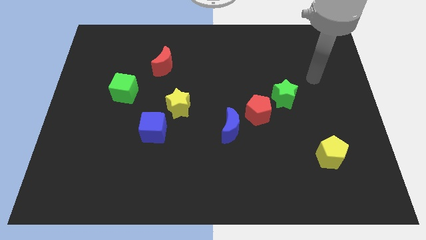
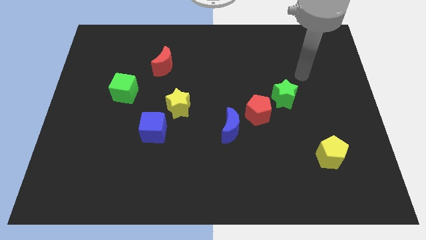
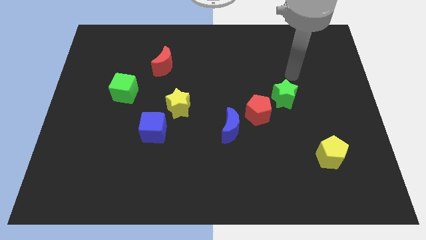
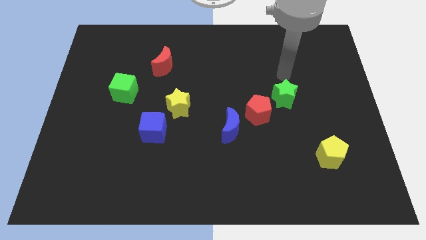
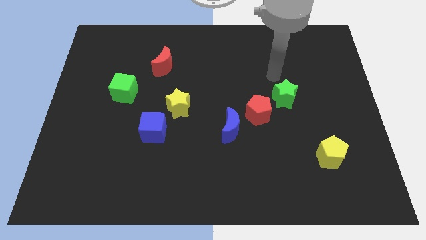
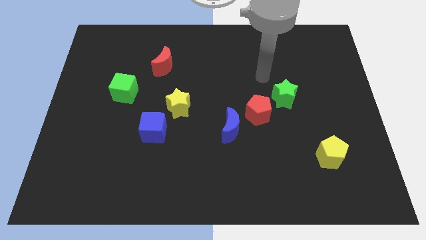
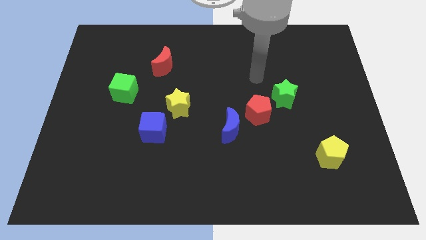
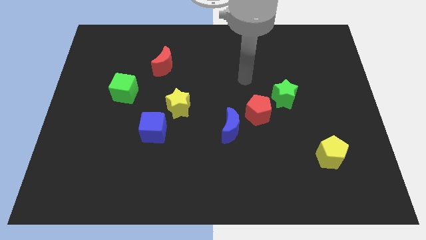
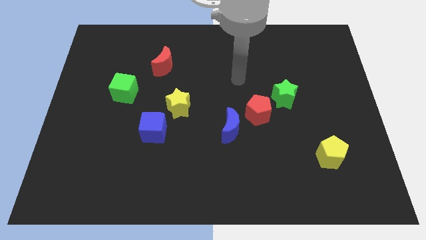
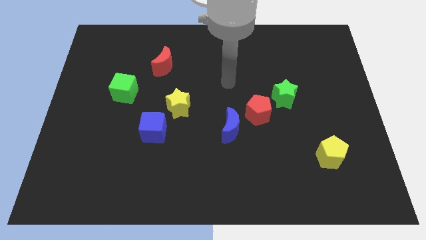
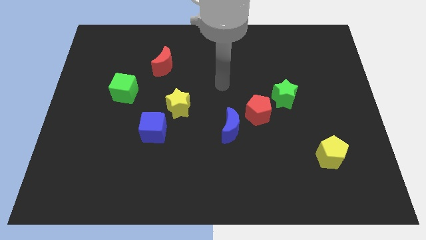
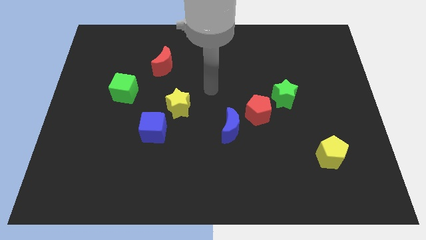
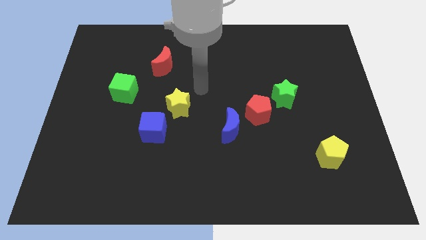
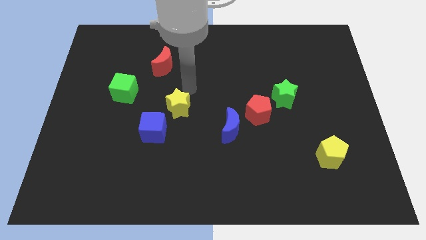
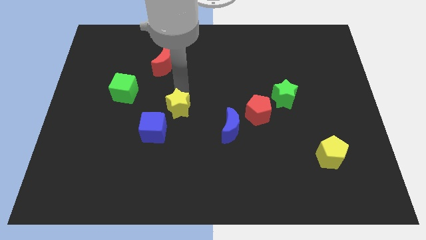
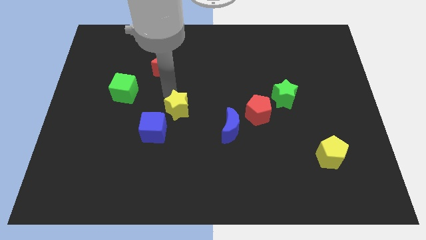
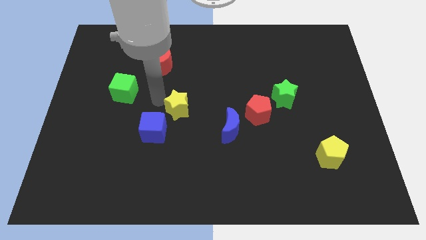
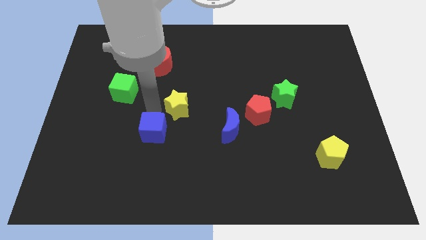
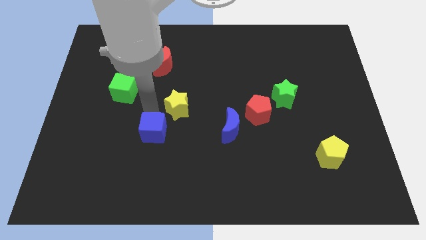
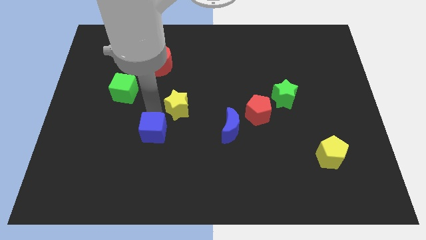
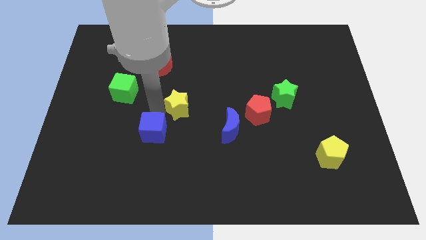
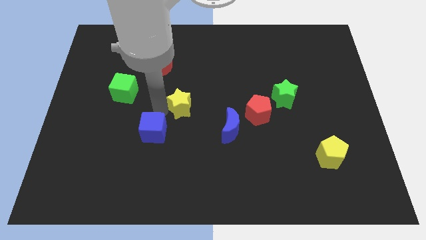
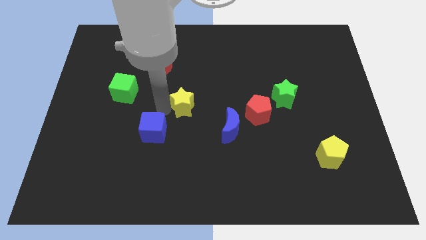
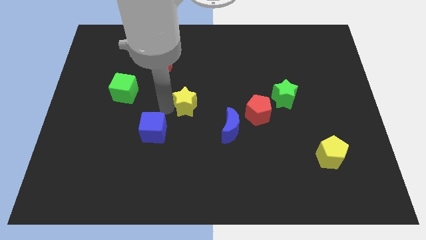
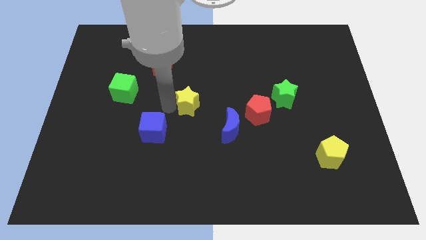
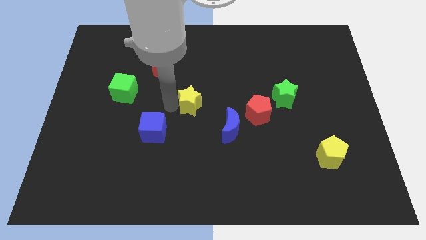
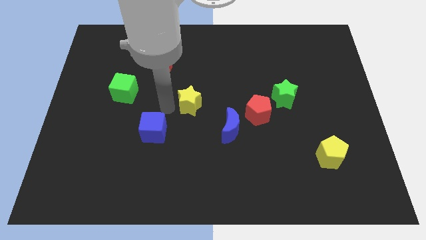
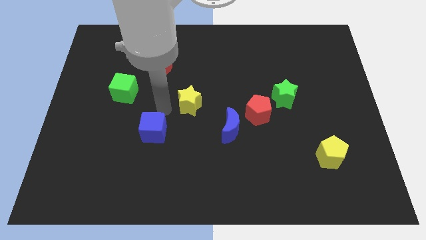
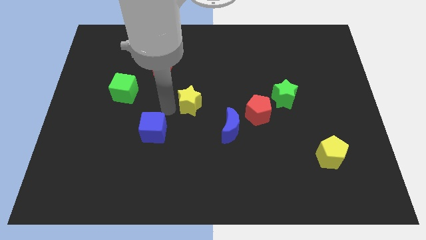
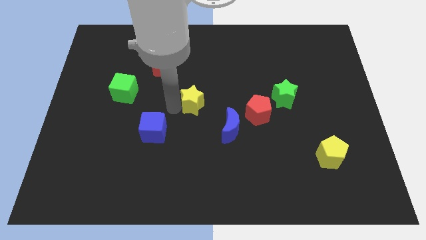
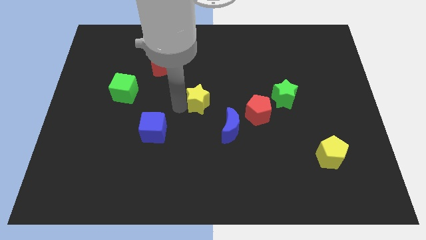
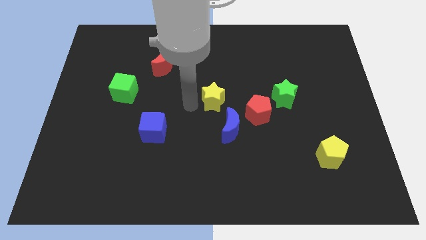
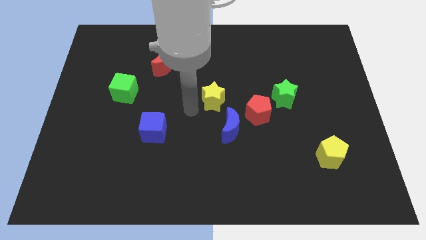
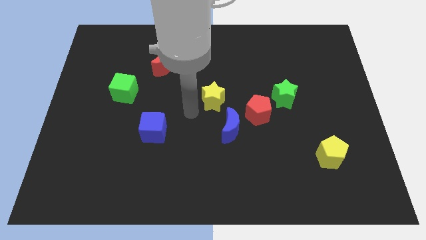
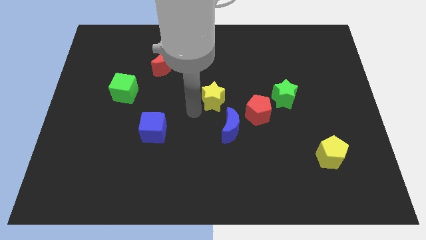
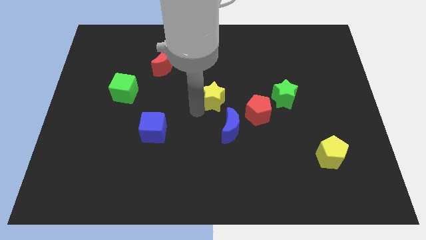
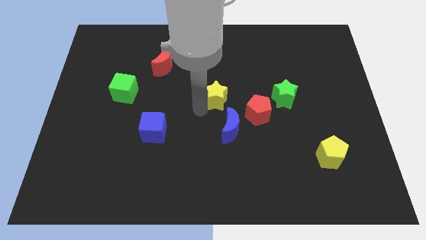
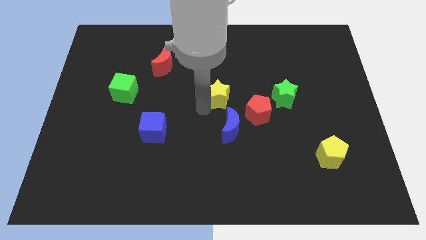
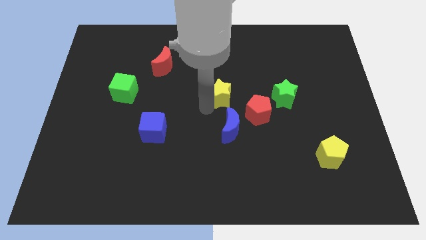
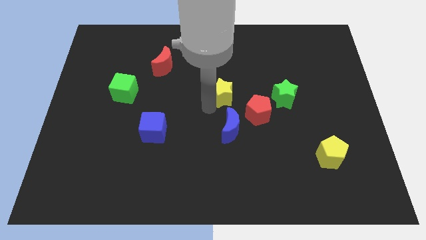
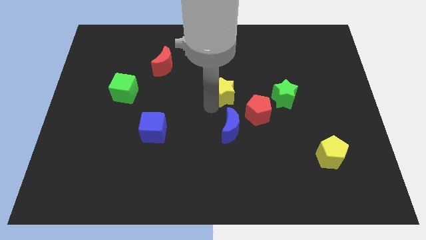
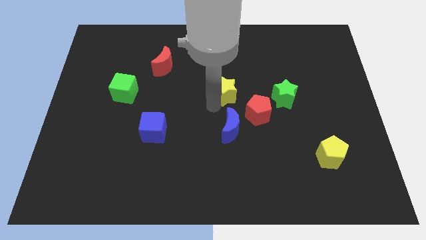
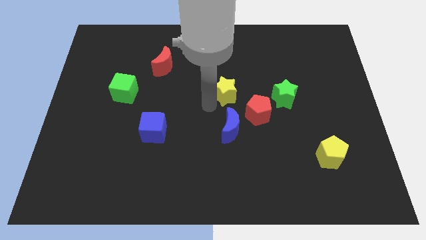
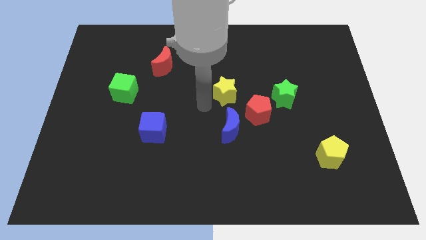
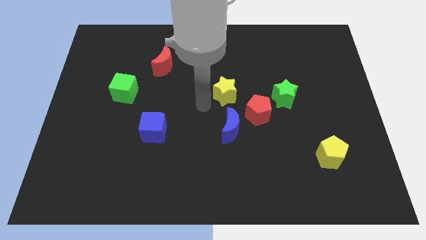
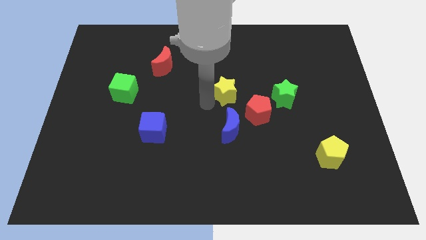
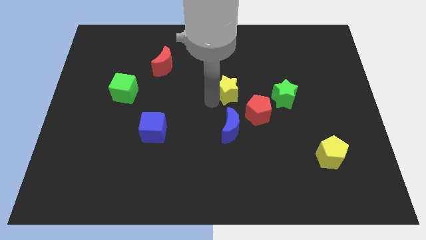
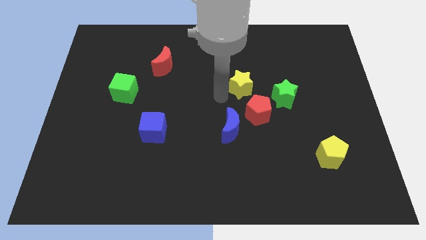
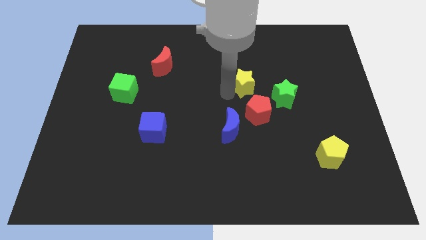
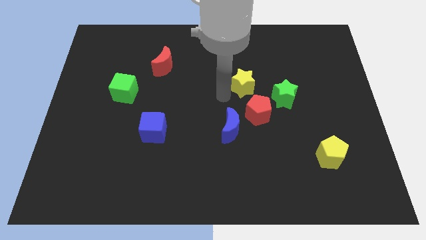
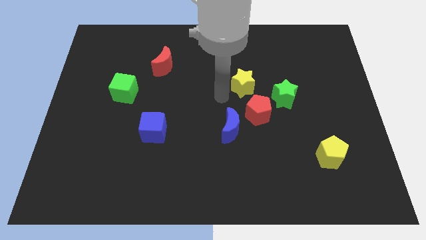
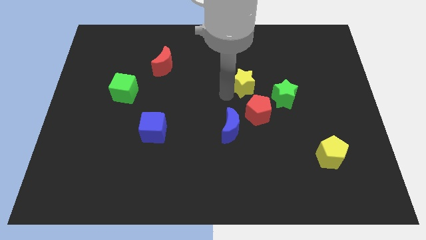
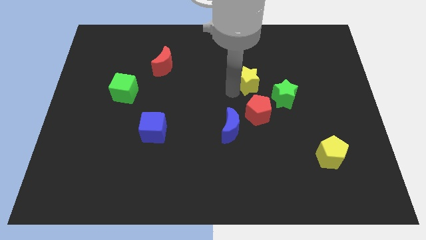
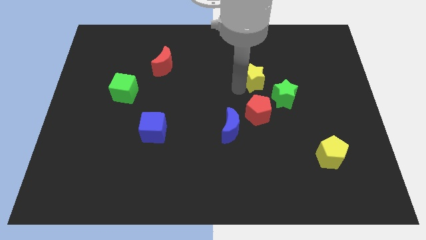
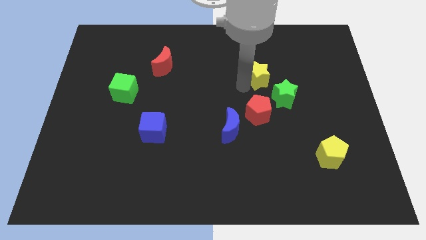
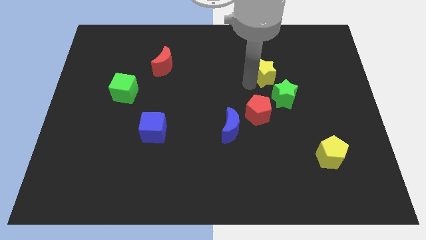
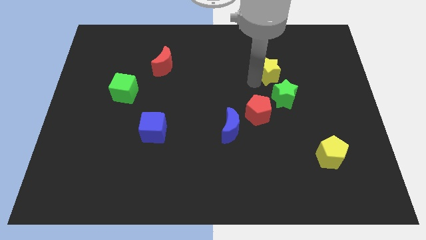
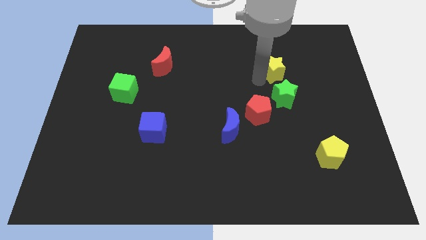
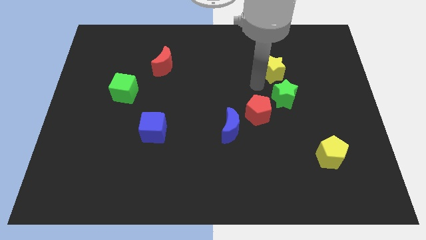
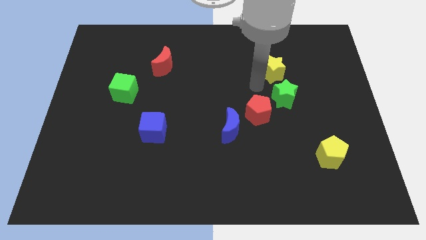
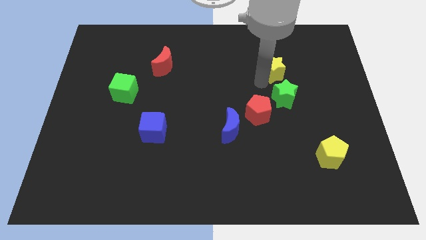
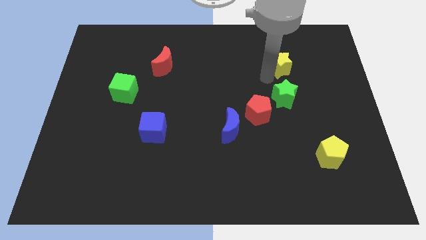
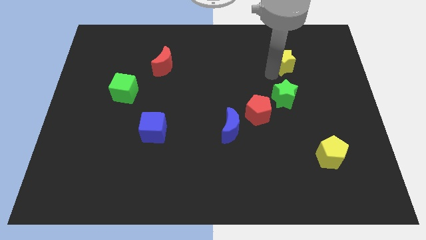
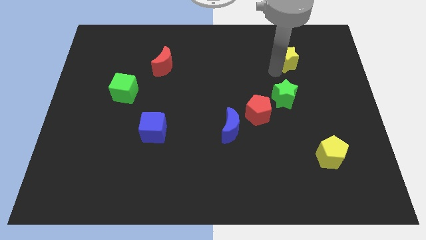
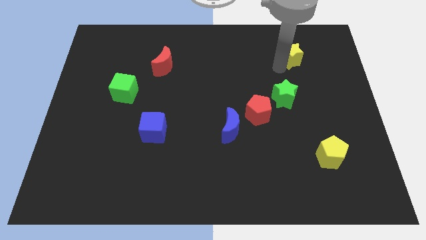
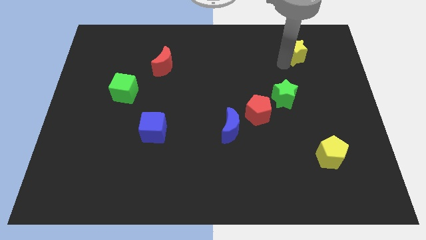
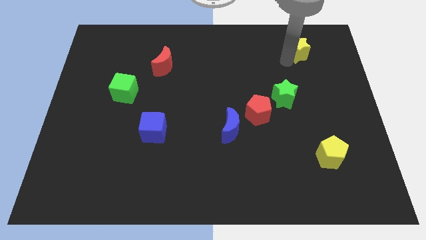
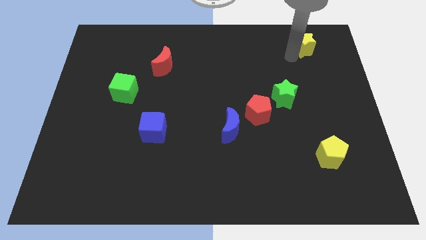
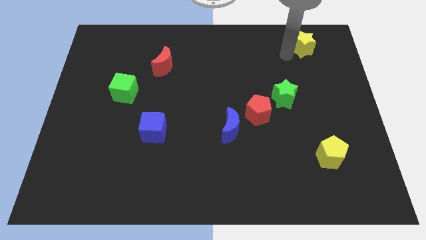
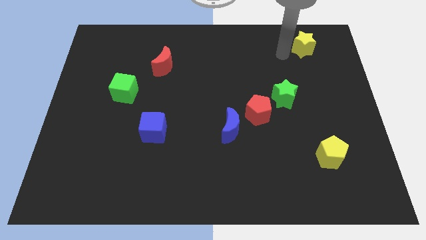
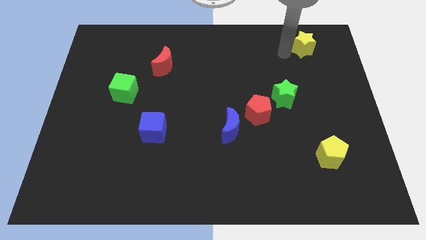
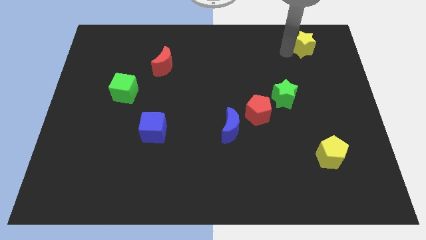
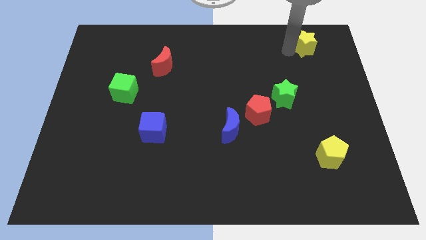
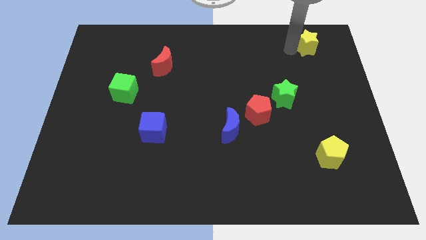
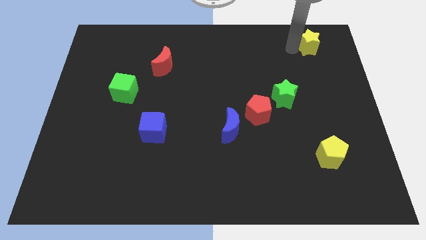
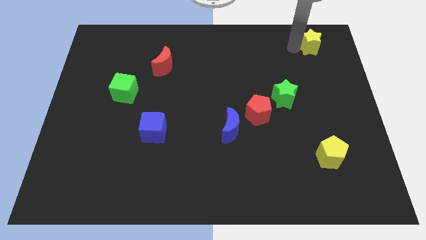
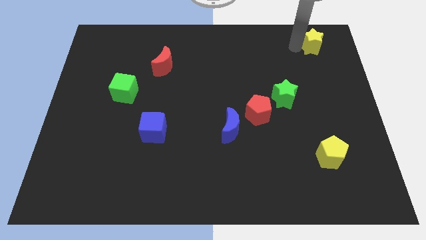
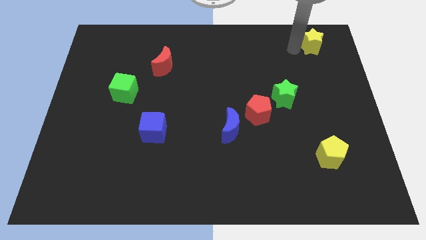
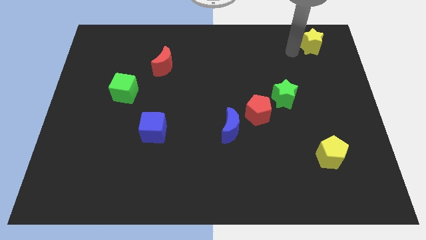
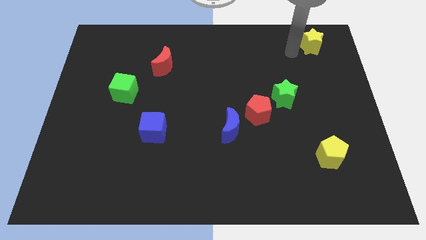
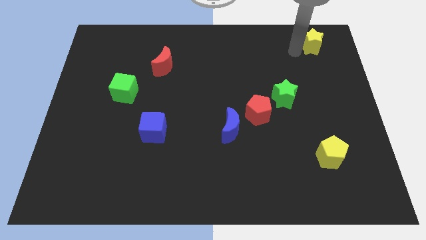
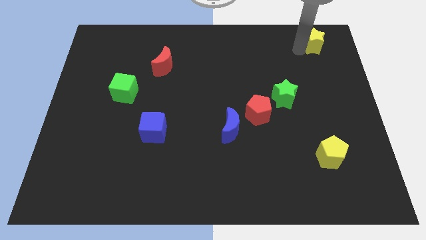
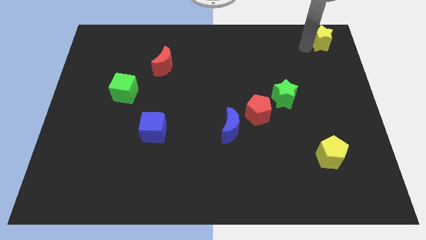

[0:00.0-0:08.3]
put the yellow star to the top right of the board
